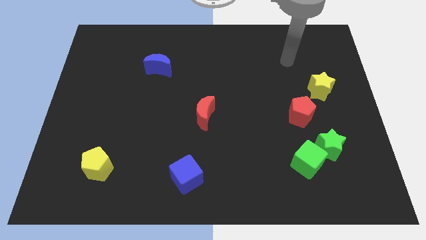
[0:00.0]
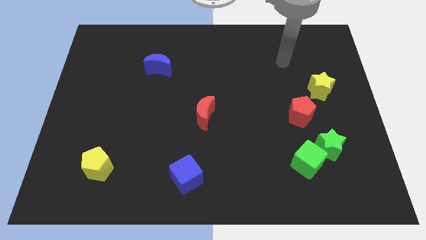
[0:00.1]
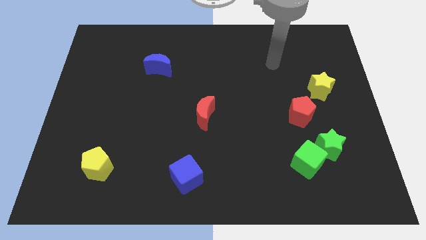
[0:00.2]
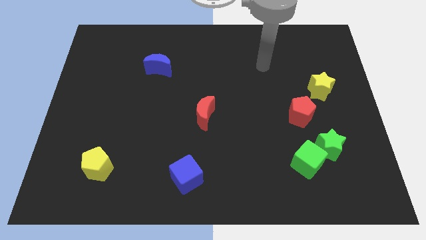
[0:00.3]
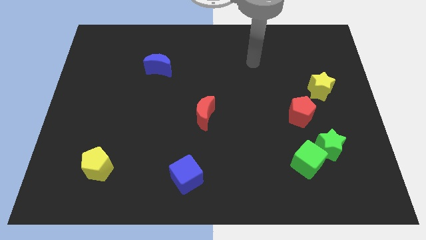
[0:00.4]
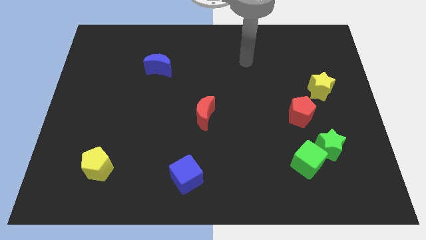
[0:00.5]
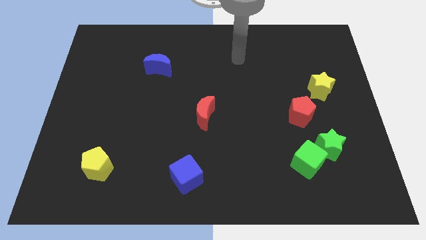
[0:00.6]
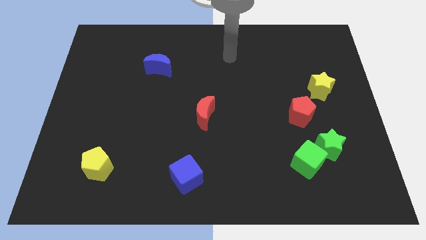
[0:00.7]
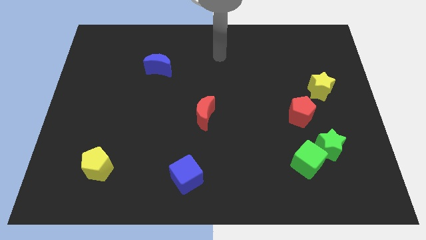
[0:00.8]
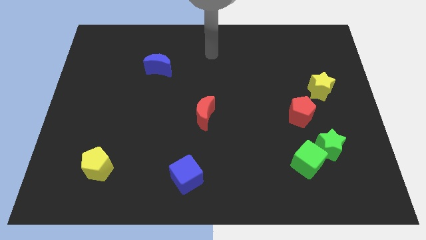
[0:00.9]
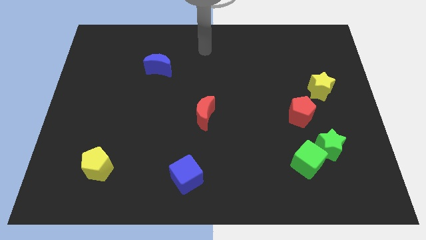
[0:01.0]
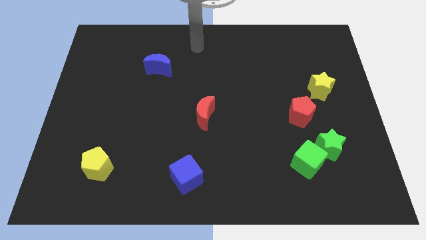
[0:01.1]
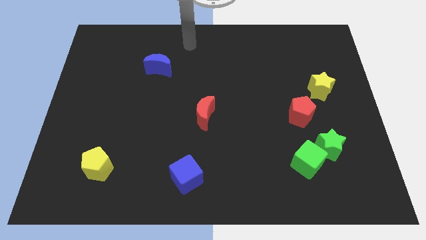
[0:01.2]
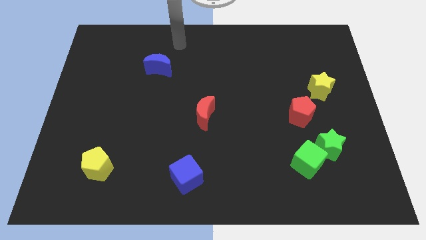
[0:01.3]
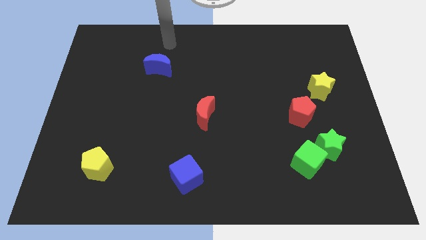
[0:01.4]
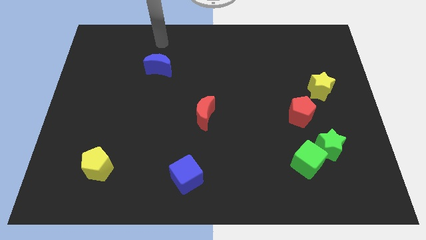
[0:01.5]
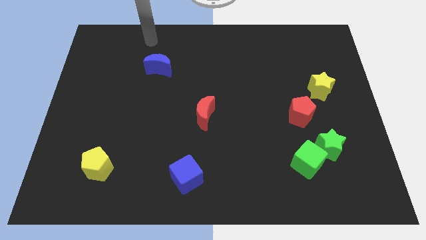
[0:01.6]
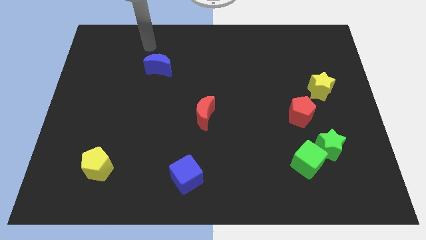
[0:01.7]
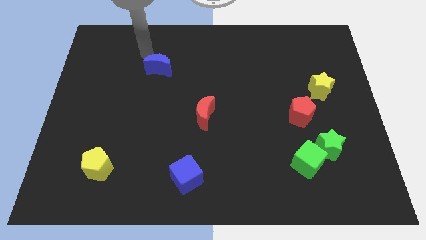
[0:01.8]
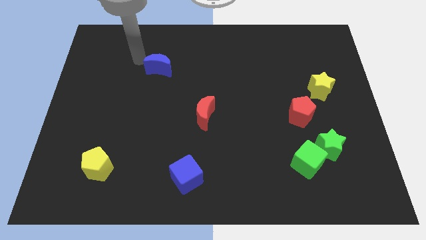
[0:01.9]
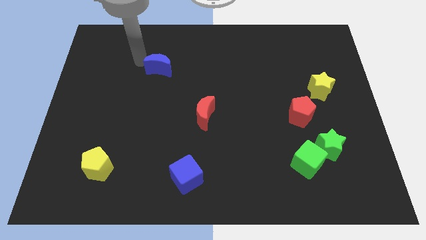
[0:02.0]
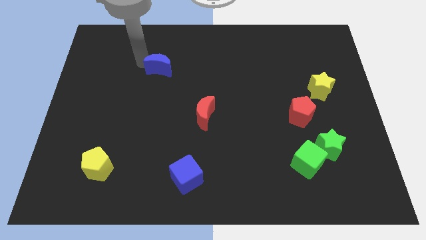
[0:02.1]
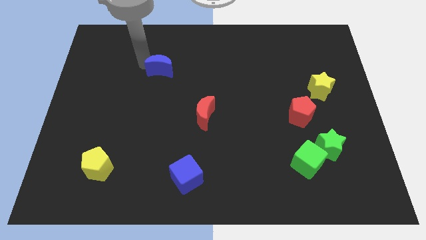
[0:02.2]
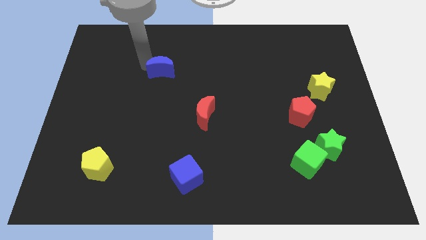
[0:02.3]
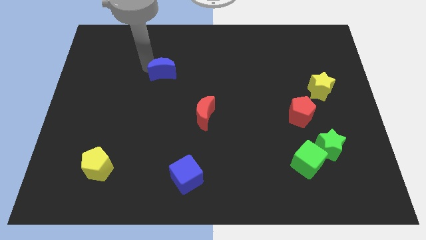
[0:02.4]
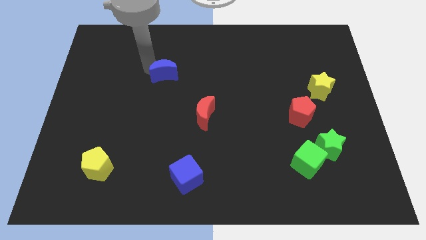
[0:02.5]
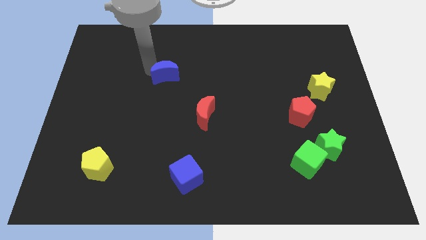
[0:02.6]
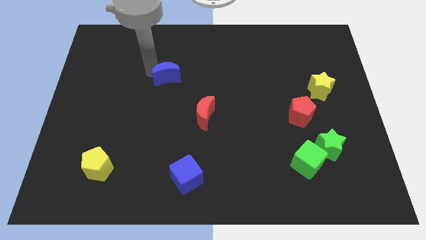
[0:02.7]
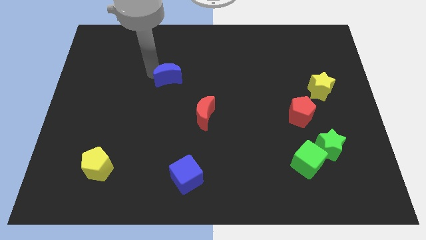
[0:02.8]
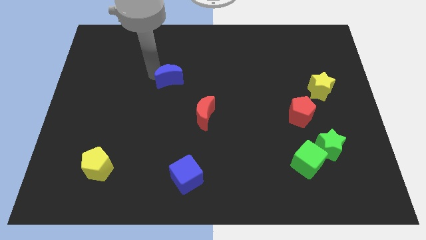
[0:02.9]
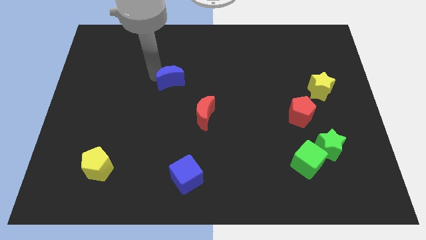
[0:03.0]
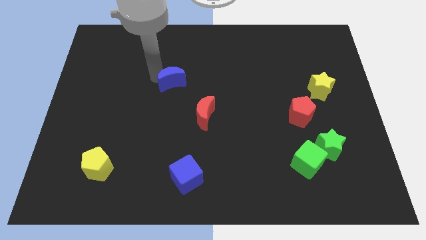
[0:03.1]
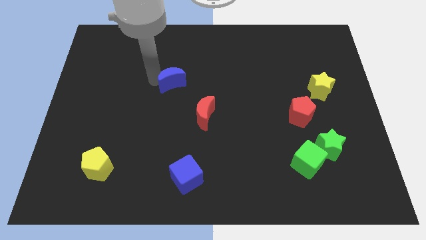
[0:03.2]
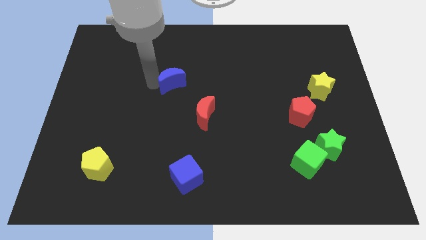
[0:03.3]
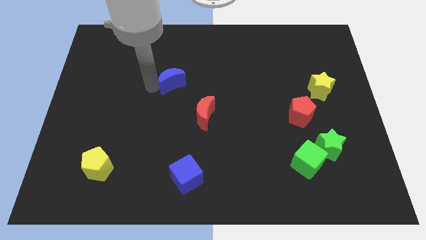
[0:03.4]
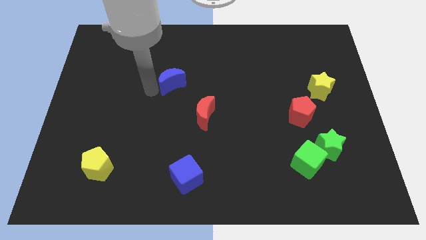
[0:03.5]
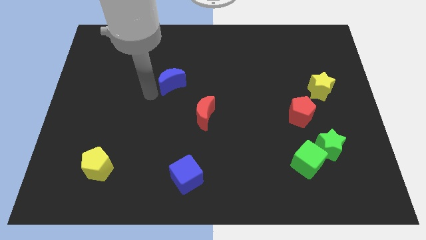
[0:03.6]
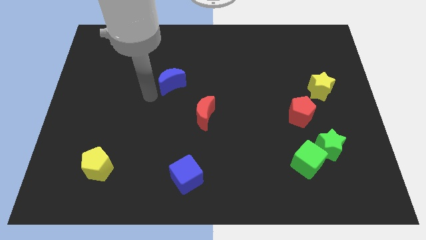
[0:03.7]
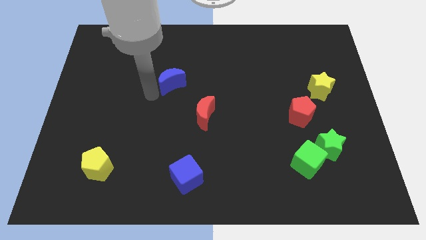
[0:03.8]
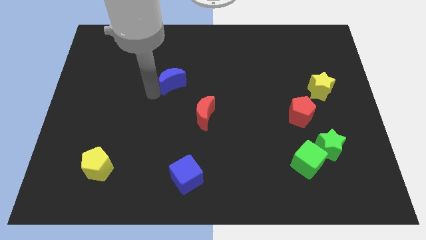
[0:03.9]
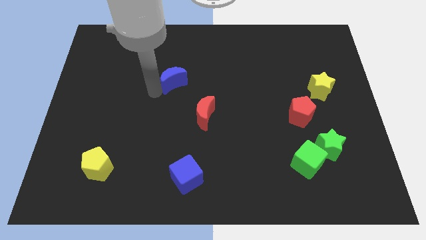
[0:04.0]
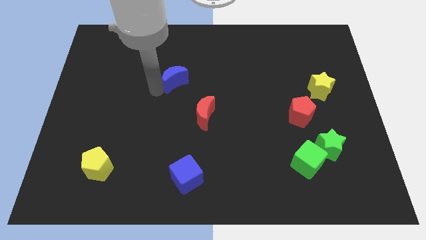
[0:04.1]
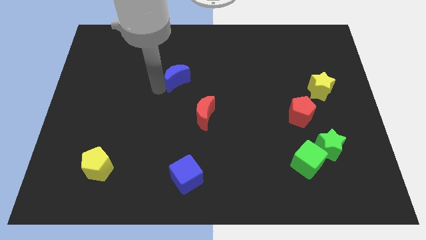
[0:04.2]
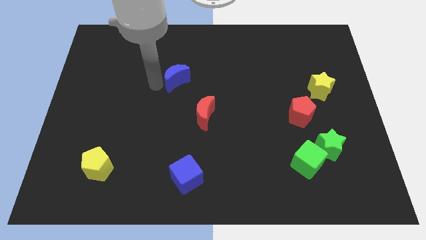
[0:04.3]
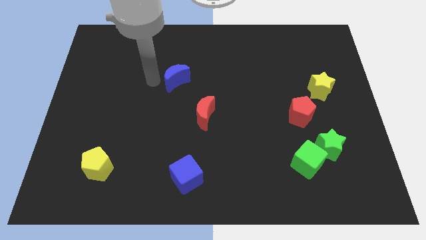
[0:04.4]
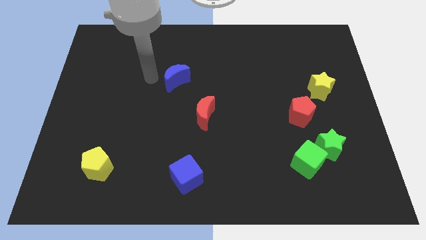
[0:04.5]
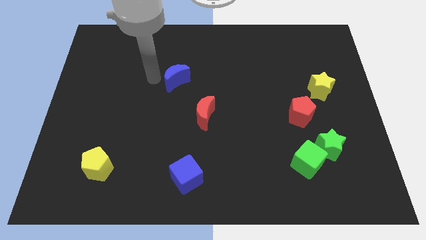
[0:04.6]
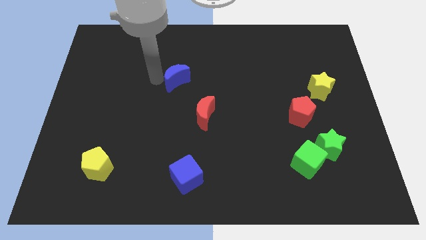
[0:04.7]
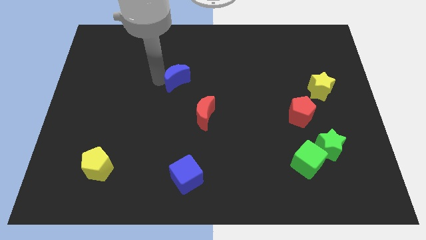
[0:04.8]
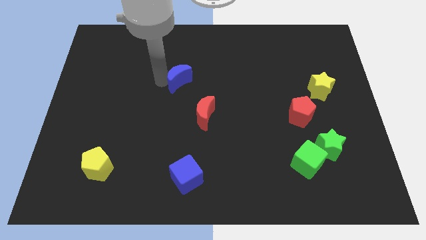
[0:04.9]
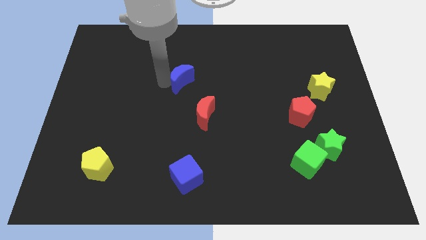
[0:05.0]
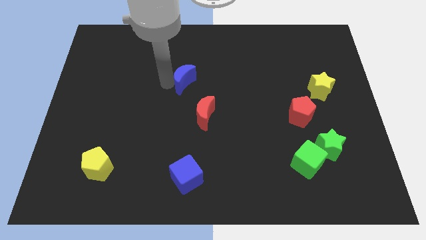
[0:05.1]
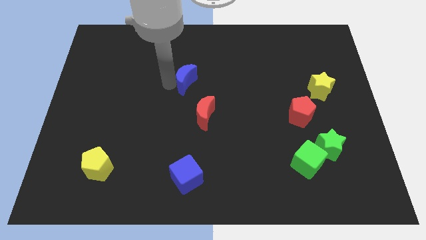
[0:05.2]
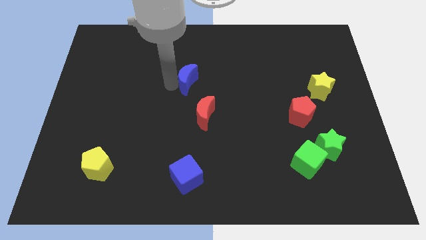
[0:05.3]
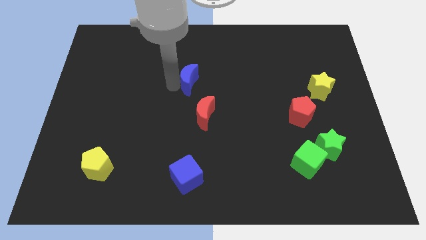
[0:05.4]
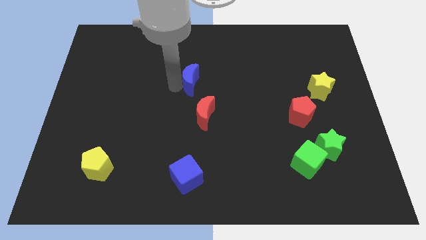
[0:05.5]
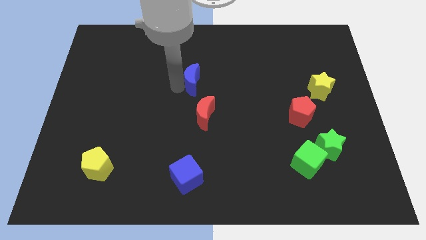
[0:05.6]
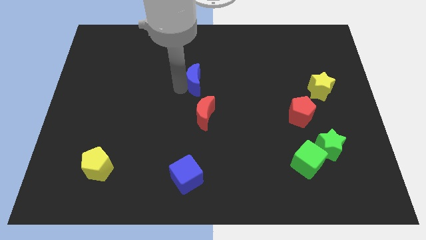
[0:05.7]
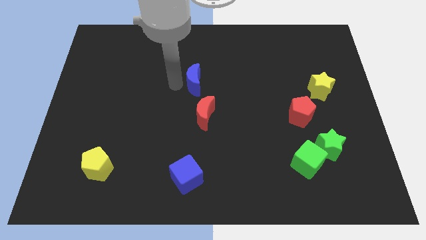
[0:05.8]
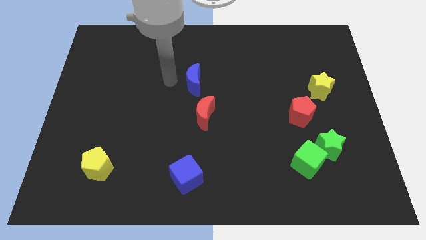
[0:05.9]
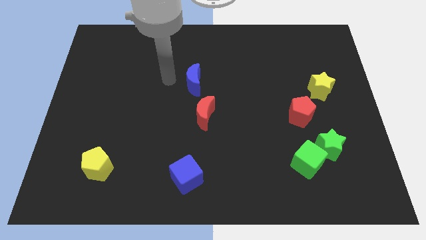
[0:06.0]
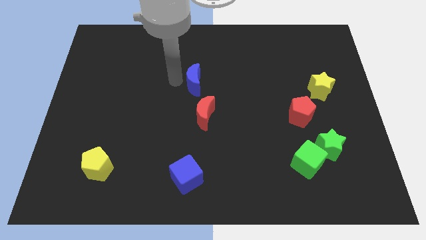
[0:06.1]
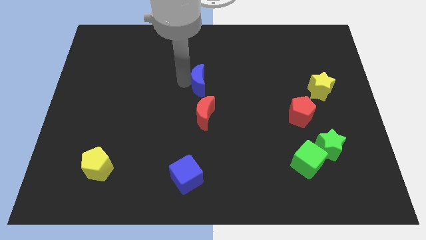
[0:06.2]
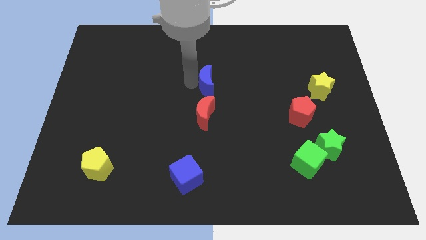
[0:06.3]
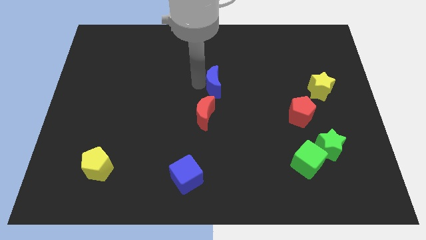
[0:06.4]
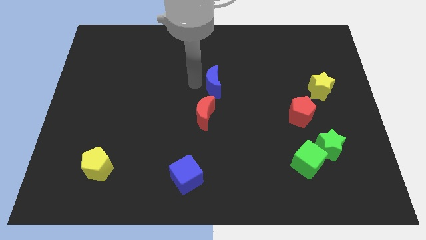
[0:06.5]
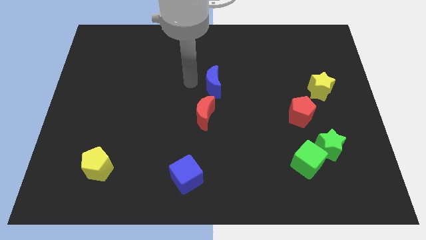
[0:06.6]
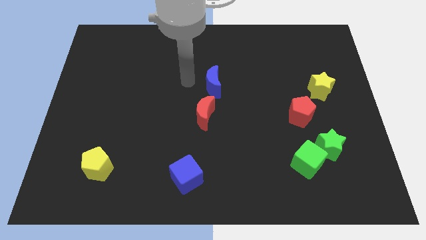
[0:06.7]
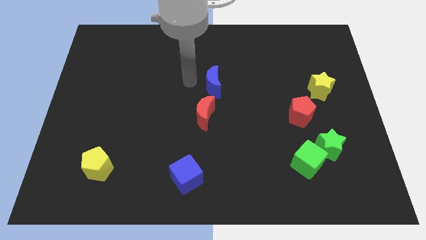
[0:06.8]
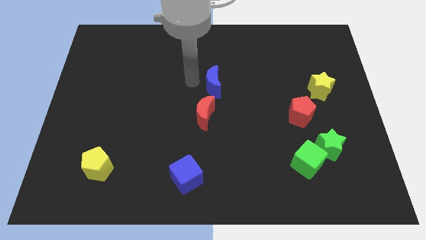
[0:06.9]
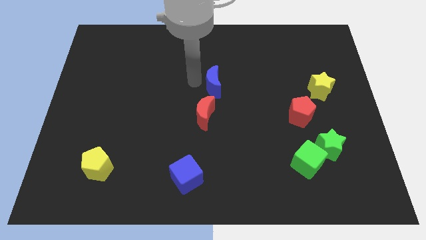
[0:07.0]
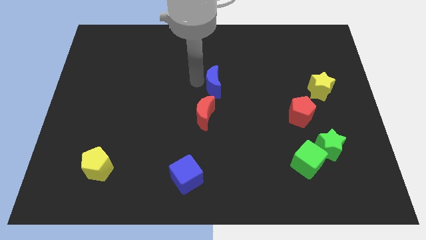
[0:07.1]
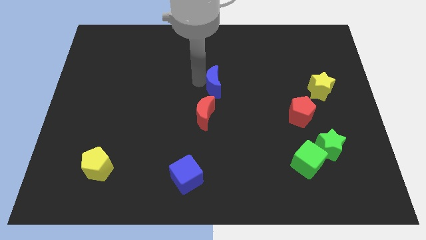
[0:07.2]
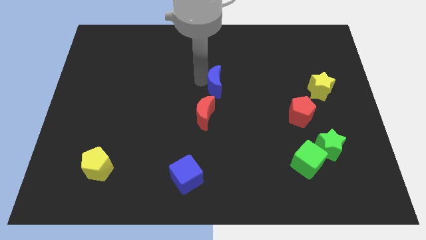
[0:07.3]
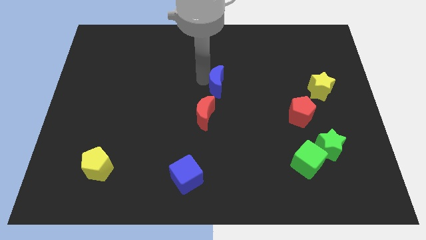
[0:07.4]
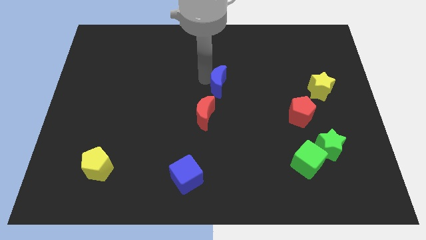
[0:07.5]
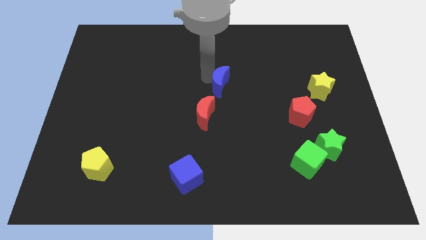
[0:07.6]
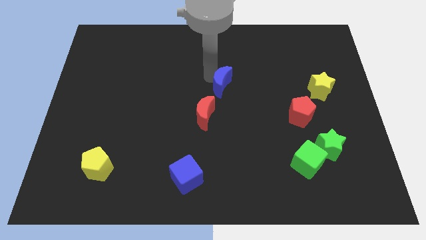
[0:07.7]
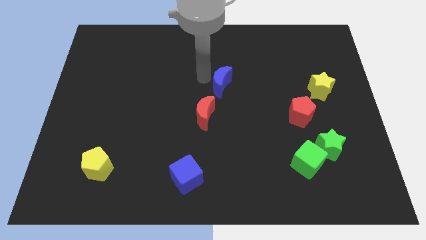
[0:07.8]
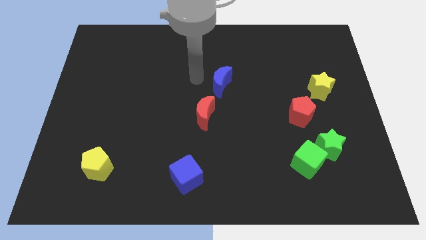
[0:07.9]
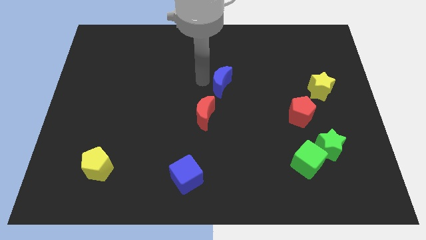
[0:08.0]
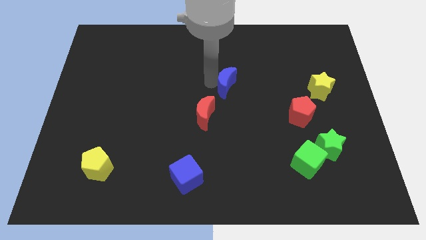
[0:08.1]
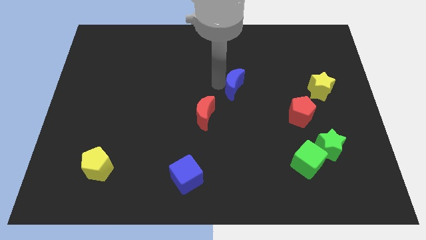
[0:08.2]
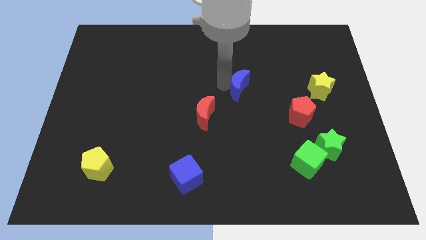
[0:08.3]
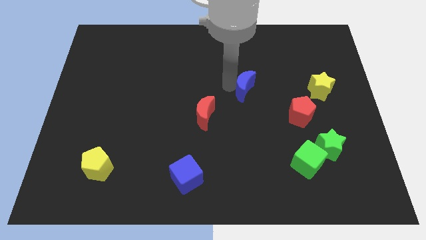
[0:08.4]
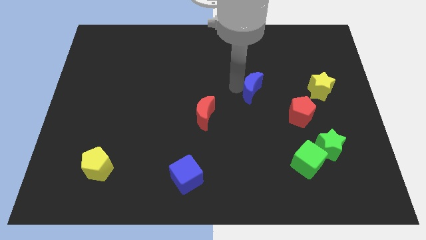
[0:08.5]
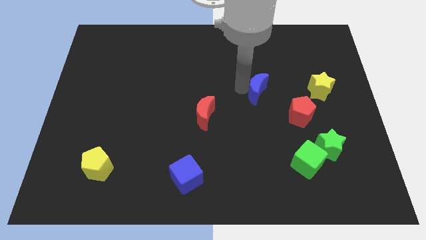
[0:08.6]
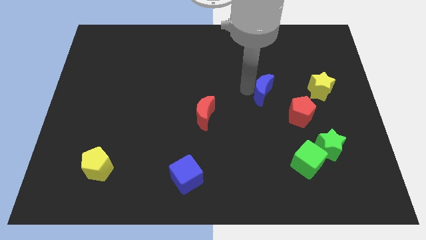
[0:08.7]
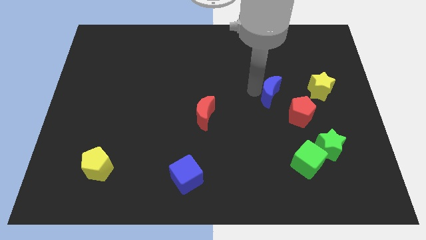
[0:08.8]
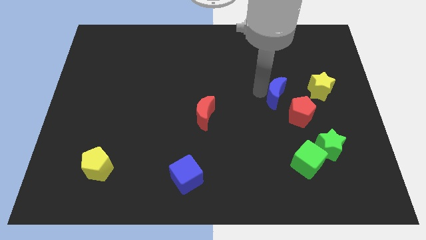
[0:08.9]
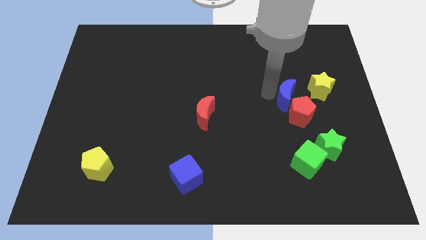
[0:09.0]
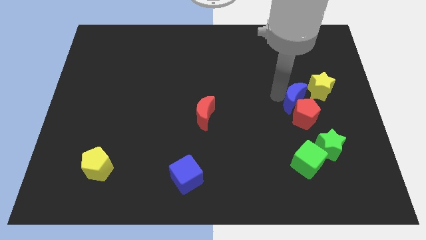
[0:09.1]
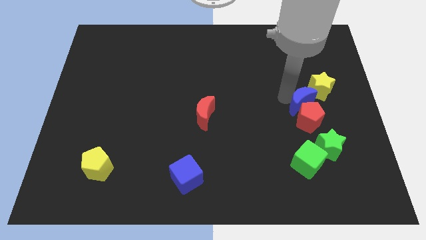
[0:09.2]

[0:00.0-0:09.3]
push the blue moon to the top of the green star
